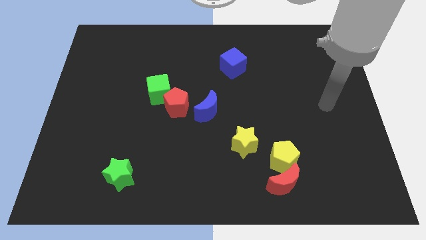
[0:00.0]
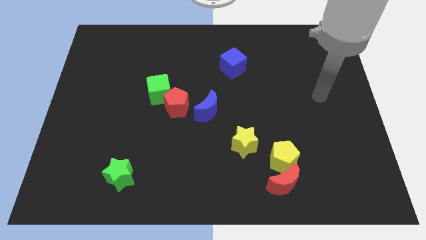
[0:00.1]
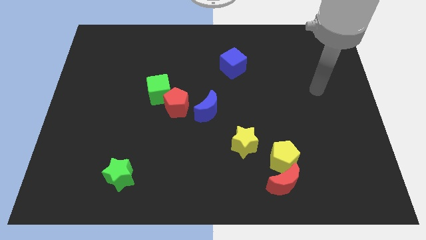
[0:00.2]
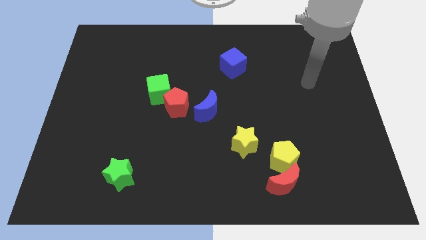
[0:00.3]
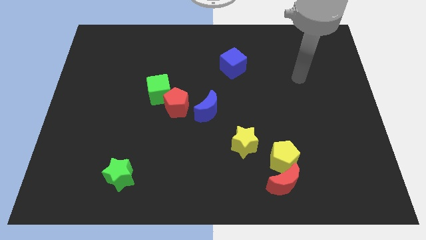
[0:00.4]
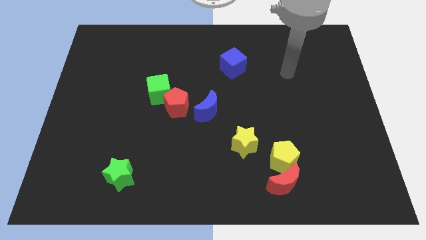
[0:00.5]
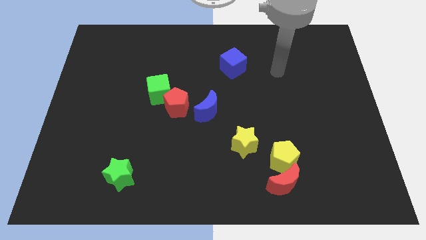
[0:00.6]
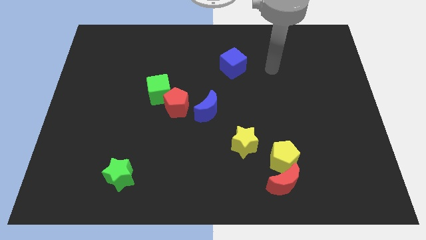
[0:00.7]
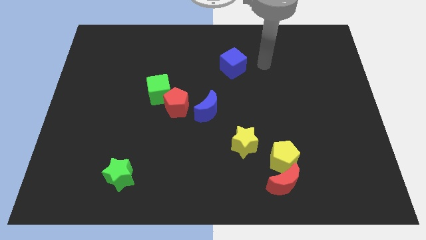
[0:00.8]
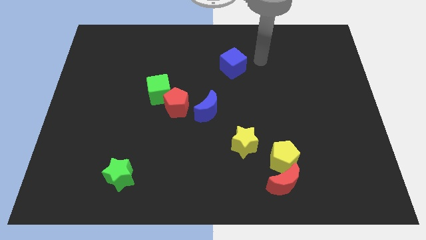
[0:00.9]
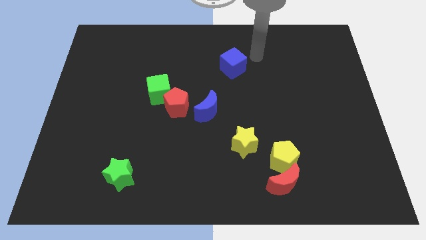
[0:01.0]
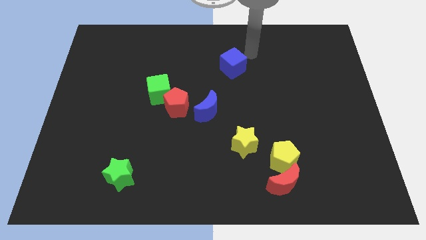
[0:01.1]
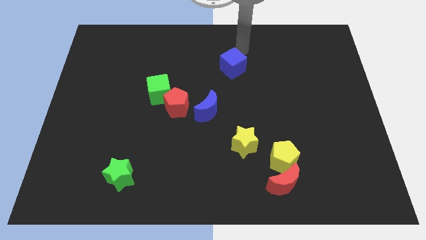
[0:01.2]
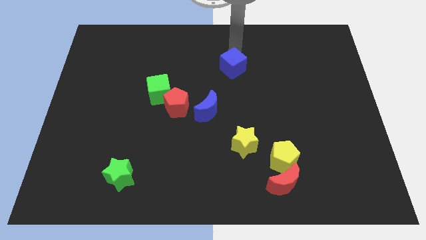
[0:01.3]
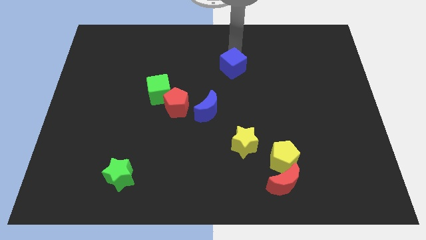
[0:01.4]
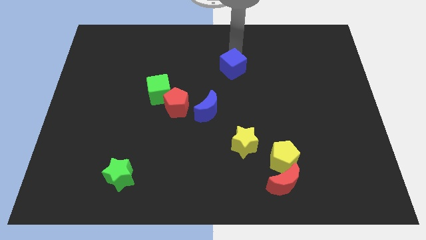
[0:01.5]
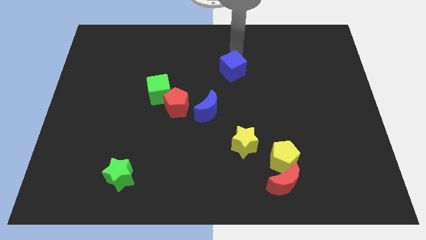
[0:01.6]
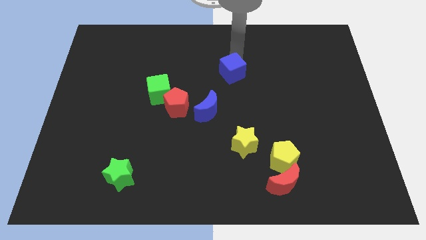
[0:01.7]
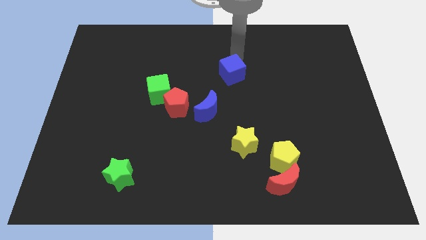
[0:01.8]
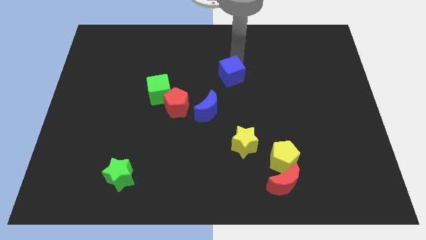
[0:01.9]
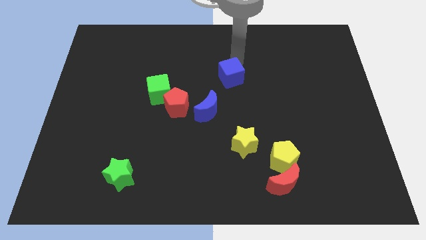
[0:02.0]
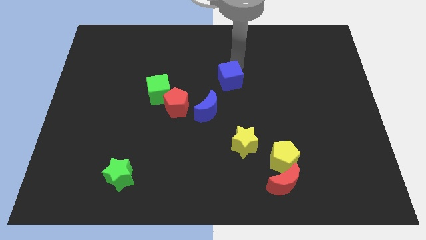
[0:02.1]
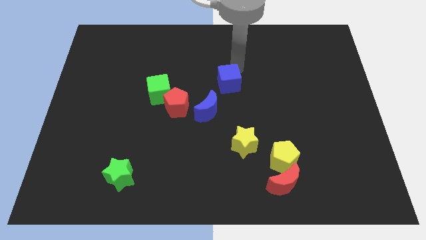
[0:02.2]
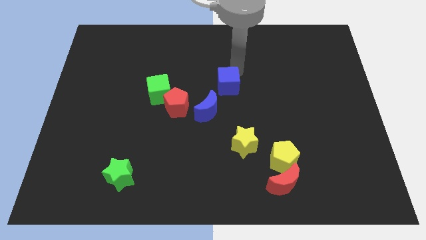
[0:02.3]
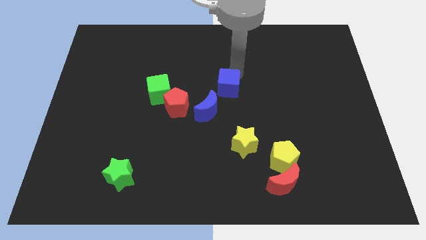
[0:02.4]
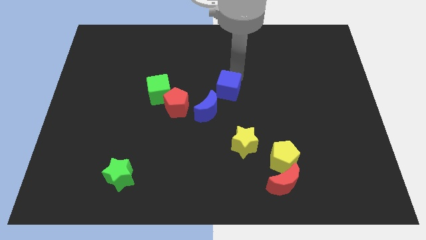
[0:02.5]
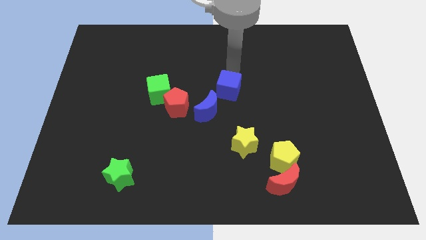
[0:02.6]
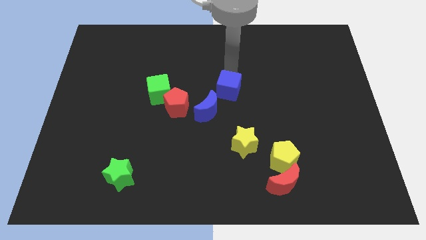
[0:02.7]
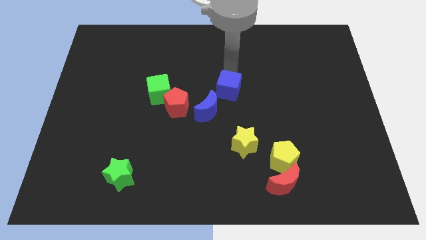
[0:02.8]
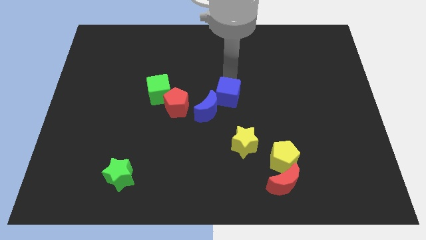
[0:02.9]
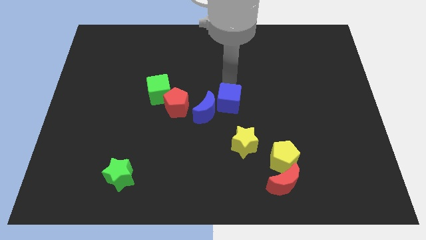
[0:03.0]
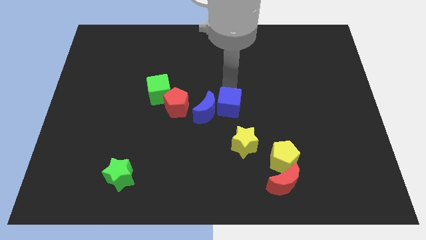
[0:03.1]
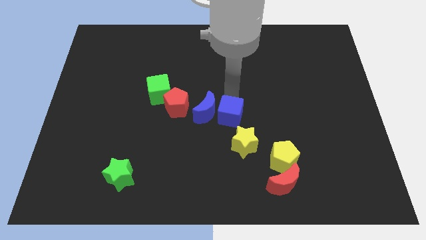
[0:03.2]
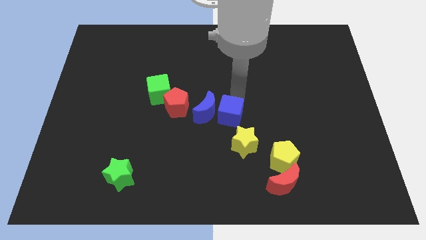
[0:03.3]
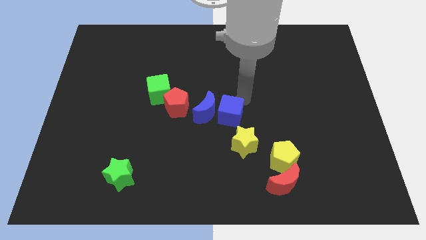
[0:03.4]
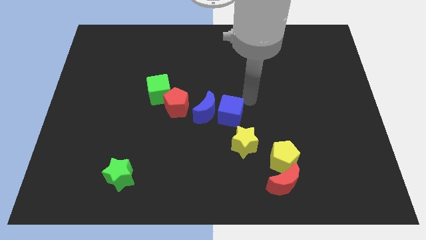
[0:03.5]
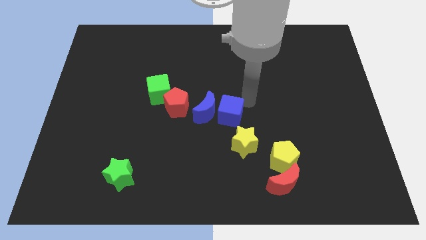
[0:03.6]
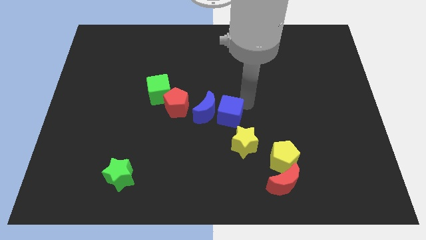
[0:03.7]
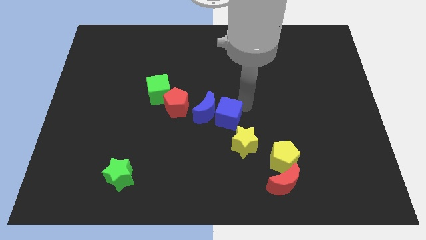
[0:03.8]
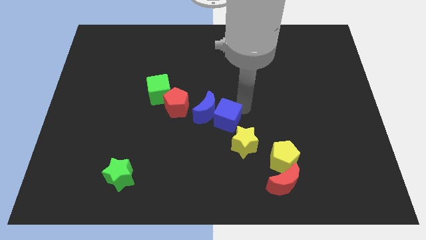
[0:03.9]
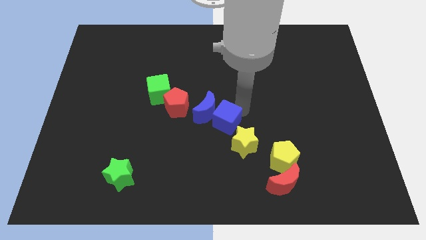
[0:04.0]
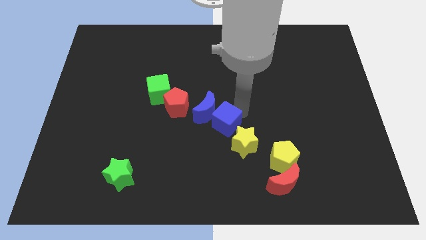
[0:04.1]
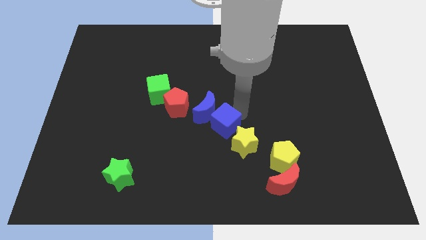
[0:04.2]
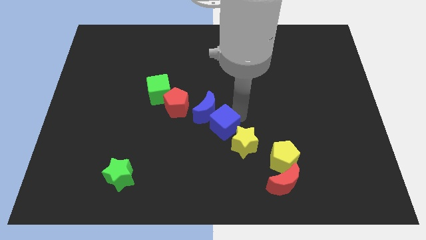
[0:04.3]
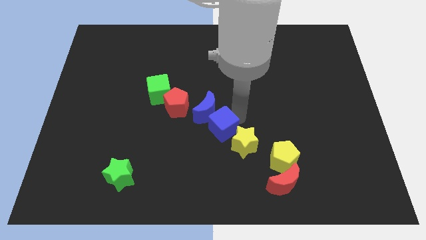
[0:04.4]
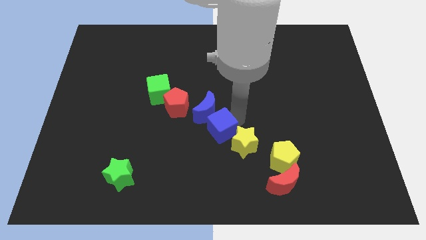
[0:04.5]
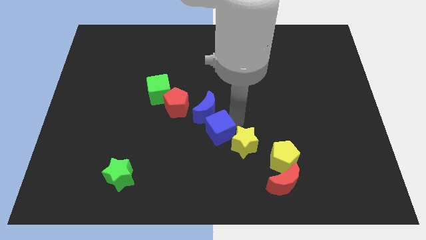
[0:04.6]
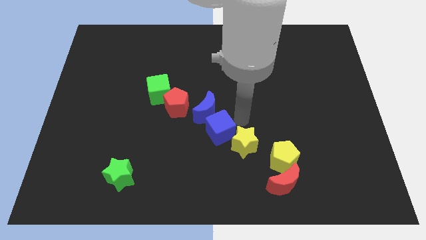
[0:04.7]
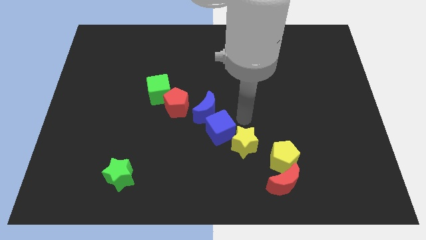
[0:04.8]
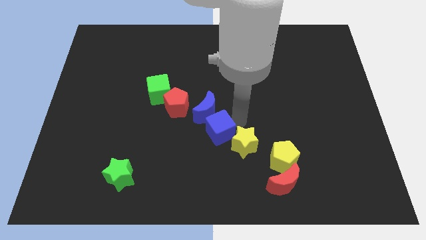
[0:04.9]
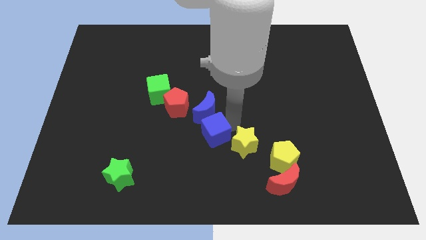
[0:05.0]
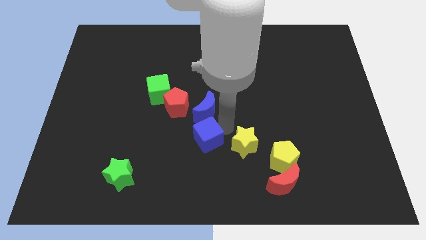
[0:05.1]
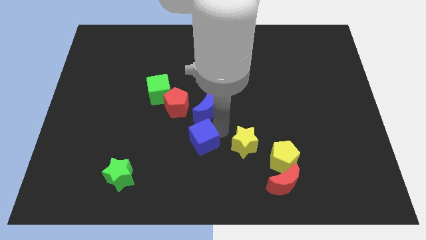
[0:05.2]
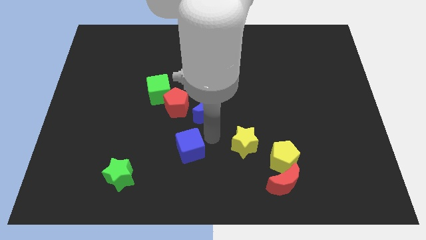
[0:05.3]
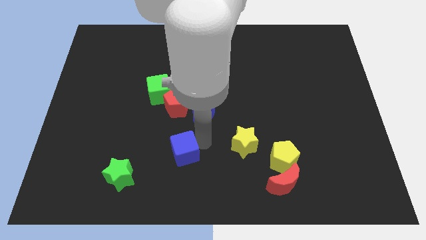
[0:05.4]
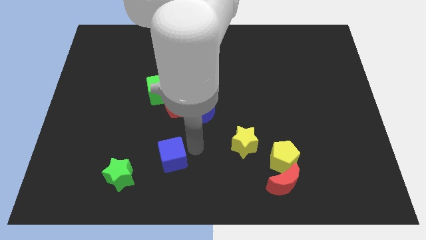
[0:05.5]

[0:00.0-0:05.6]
put the blue cube to the top right of the green star

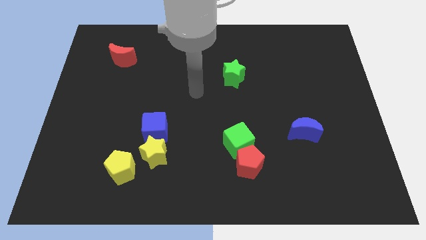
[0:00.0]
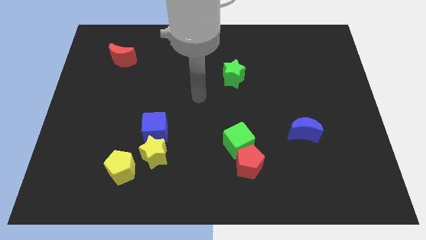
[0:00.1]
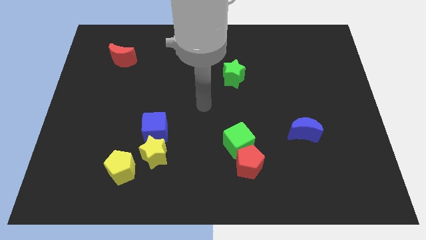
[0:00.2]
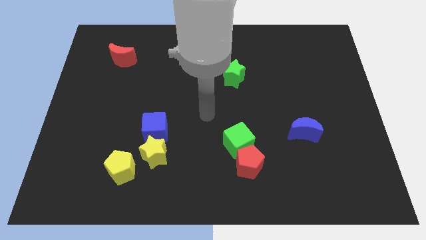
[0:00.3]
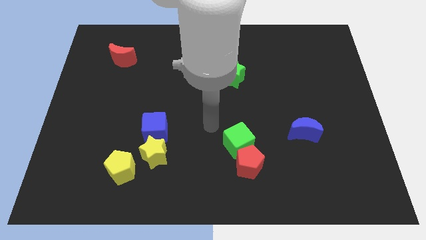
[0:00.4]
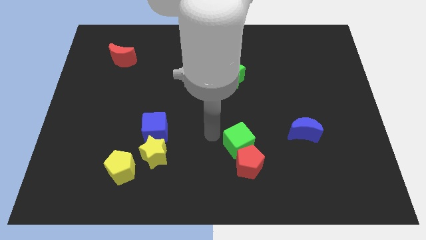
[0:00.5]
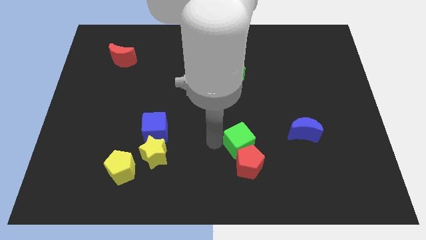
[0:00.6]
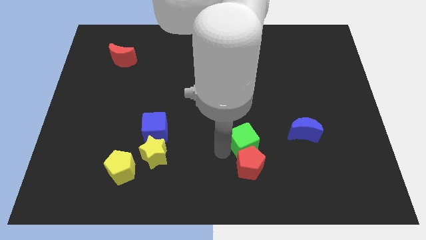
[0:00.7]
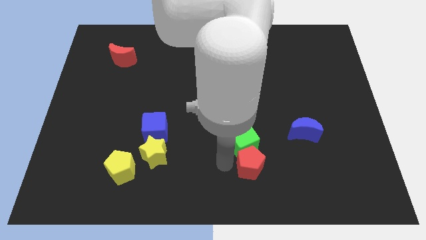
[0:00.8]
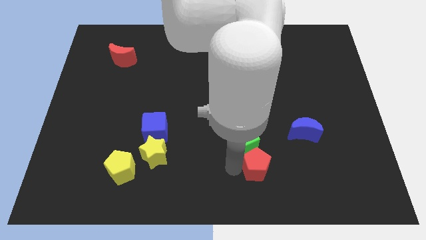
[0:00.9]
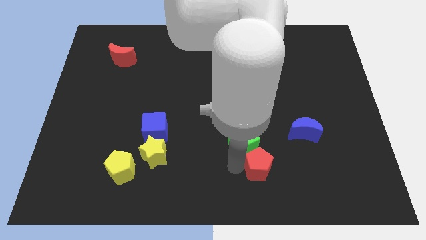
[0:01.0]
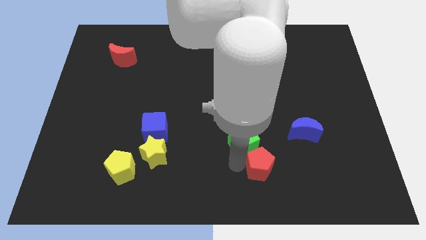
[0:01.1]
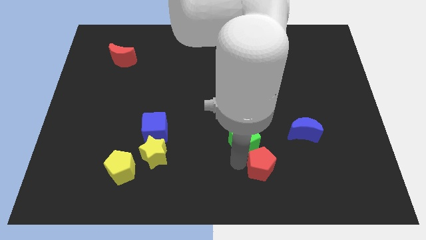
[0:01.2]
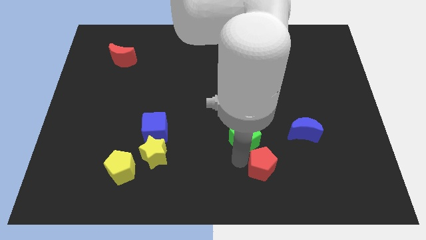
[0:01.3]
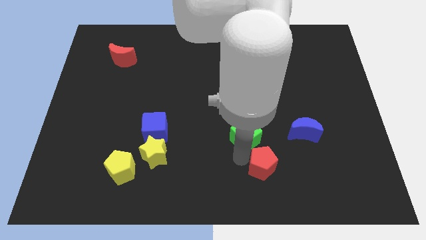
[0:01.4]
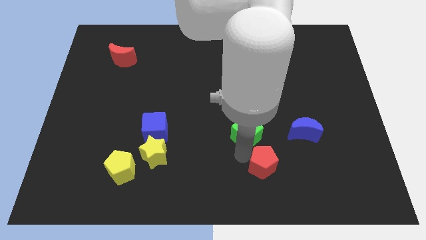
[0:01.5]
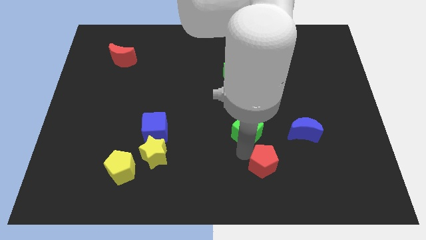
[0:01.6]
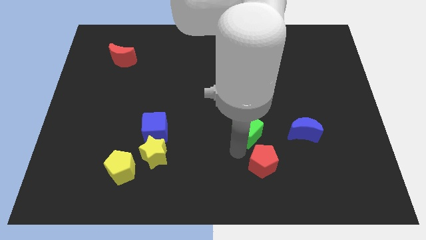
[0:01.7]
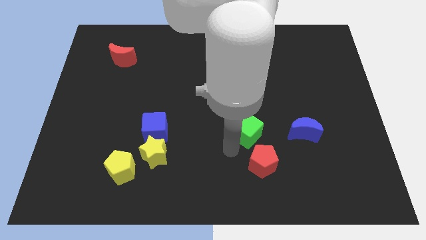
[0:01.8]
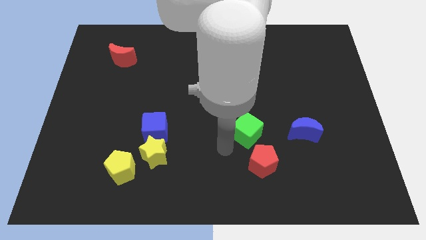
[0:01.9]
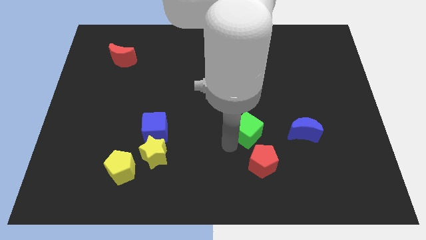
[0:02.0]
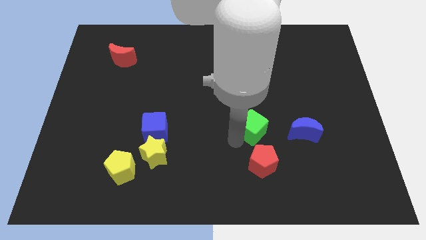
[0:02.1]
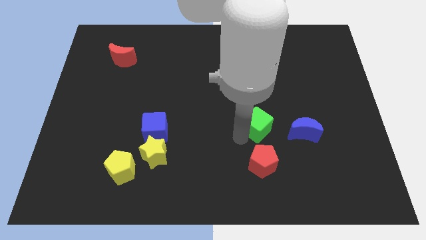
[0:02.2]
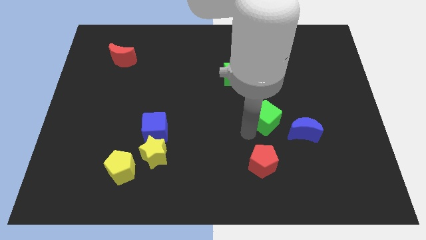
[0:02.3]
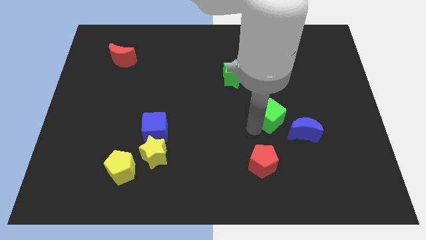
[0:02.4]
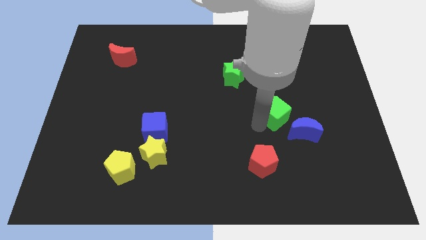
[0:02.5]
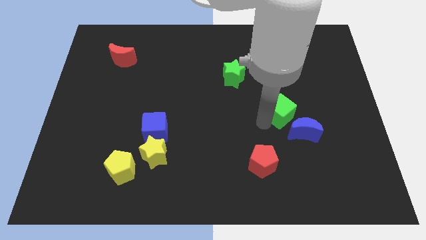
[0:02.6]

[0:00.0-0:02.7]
slide the green cube above the blue moon
